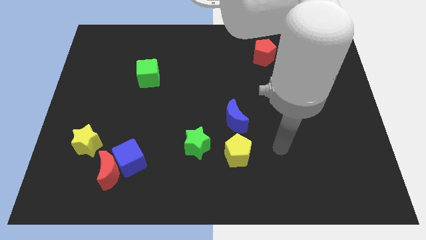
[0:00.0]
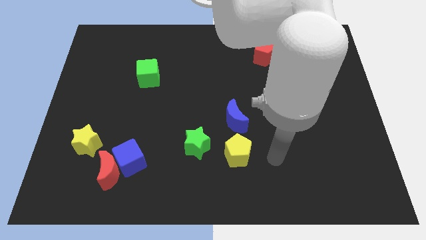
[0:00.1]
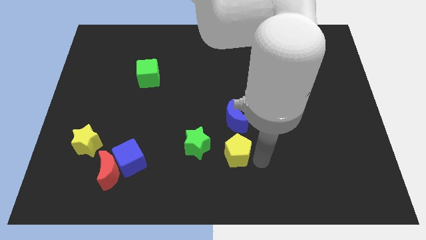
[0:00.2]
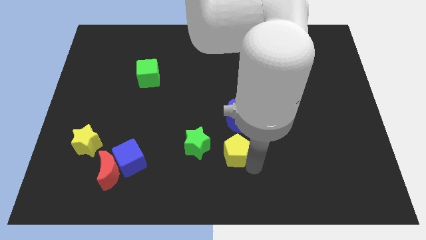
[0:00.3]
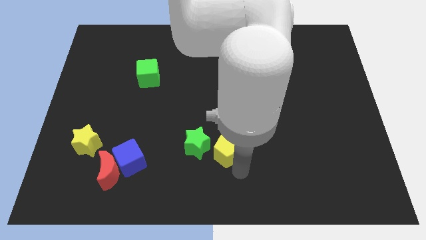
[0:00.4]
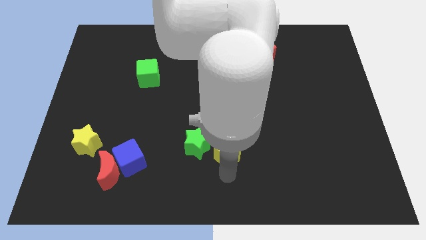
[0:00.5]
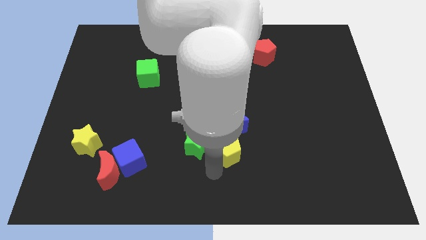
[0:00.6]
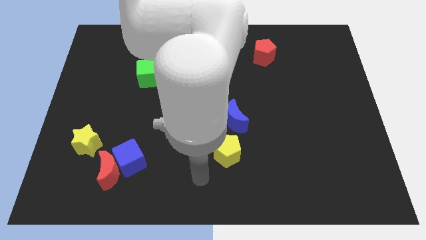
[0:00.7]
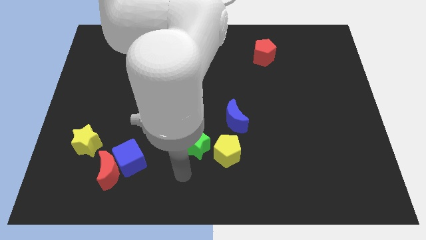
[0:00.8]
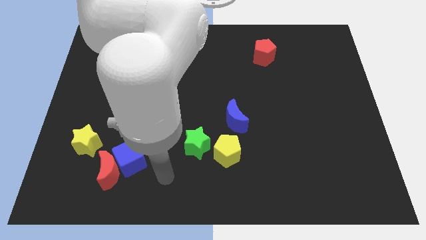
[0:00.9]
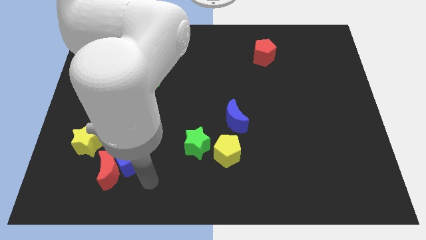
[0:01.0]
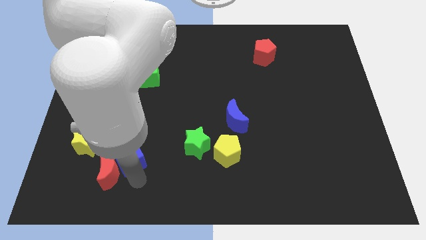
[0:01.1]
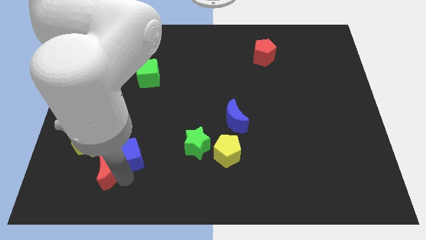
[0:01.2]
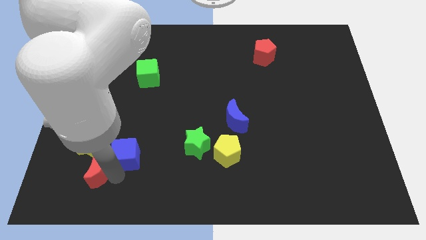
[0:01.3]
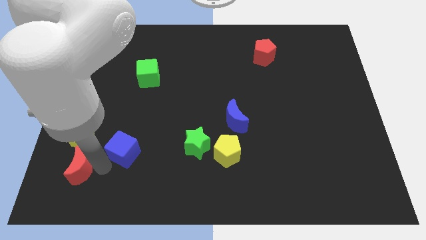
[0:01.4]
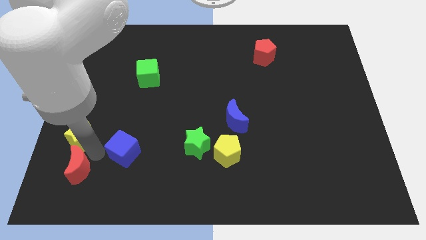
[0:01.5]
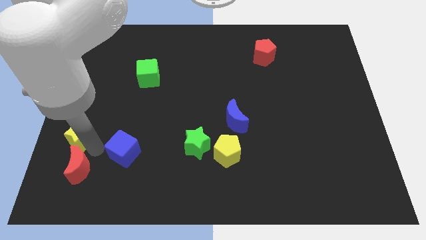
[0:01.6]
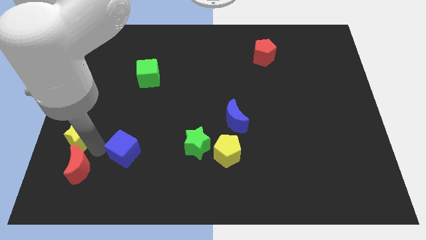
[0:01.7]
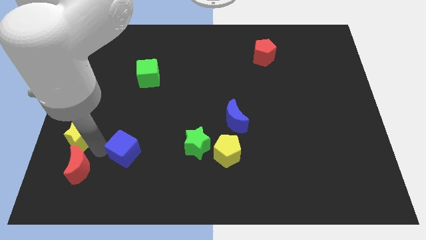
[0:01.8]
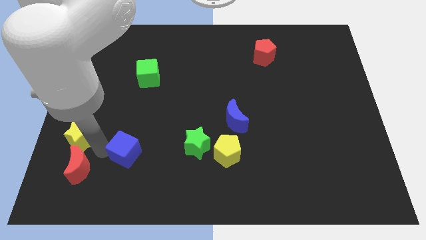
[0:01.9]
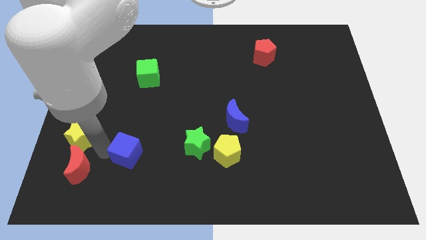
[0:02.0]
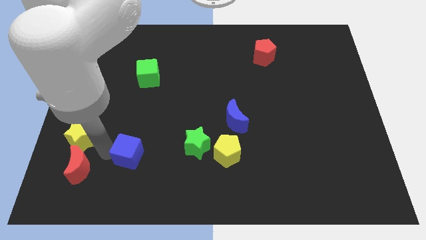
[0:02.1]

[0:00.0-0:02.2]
move the blue cube away from the red moon

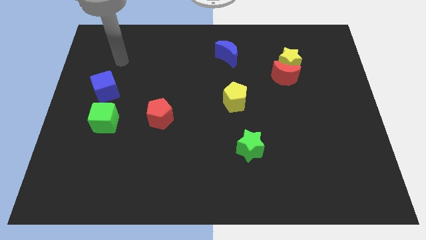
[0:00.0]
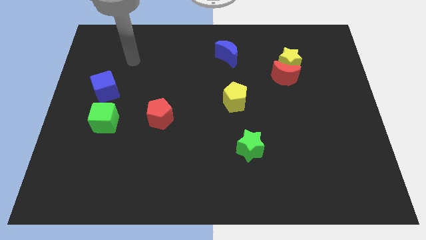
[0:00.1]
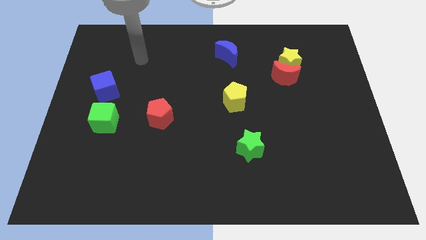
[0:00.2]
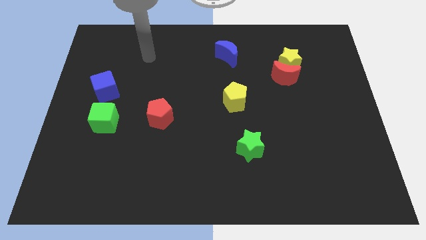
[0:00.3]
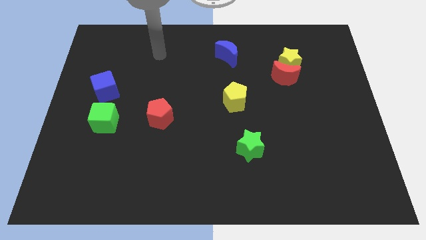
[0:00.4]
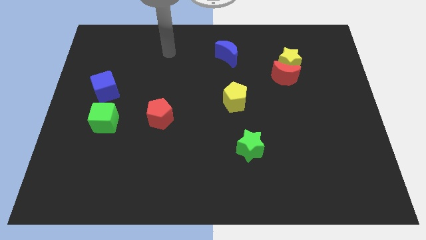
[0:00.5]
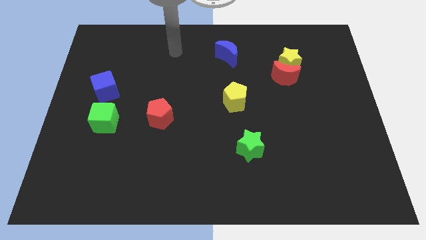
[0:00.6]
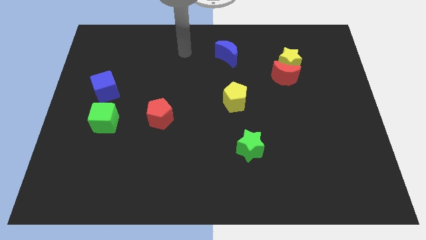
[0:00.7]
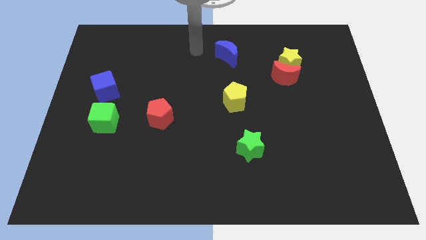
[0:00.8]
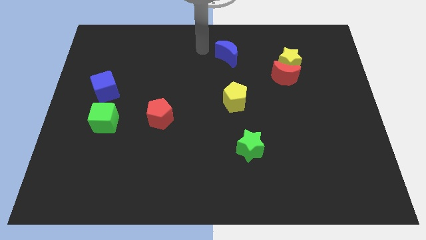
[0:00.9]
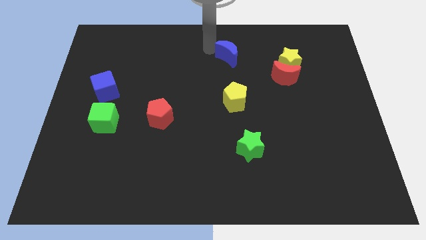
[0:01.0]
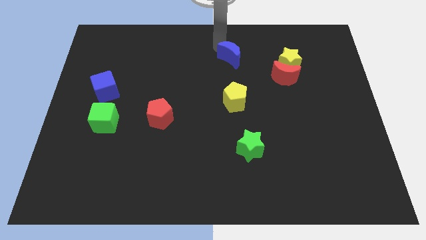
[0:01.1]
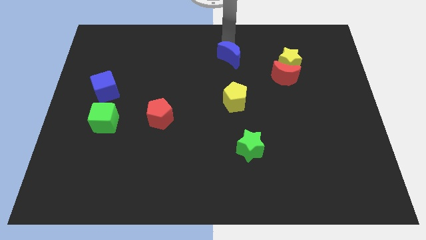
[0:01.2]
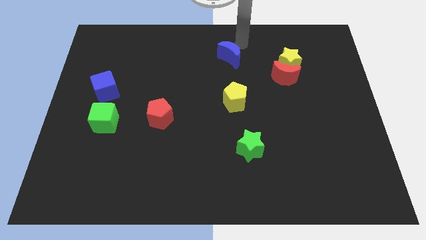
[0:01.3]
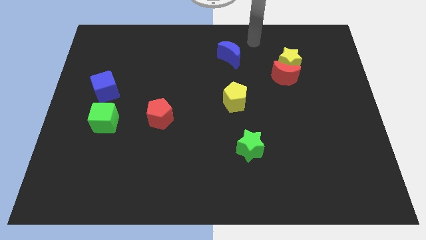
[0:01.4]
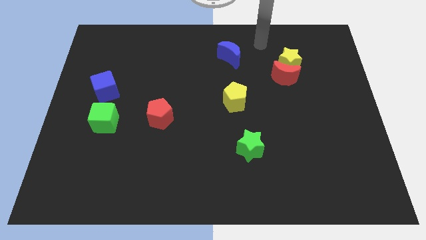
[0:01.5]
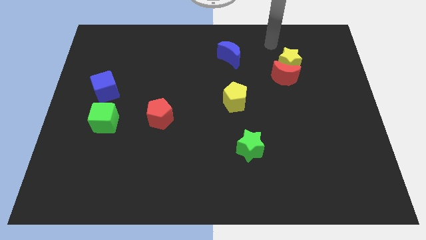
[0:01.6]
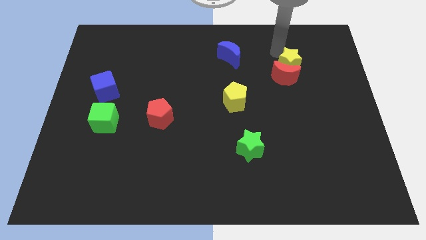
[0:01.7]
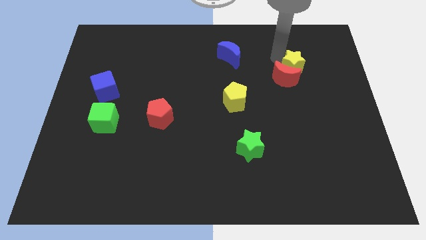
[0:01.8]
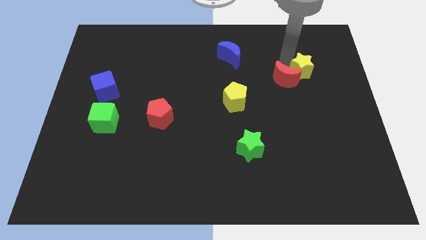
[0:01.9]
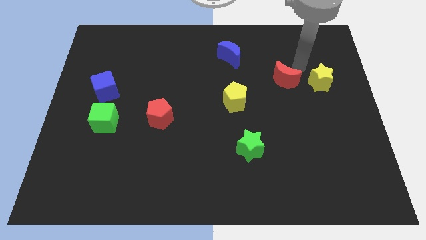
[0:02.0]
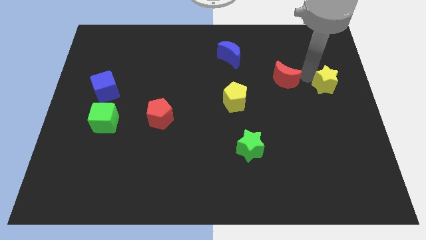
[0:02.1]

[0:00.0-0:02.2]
pull the red moon apart from the yellow star

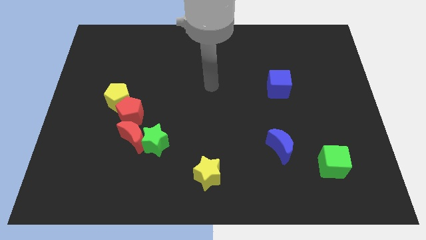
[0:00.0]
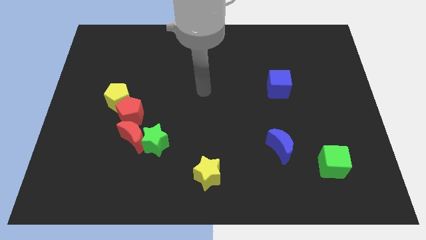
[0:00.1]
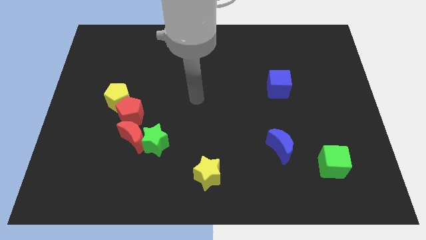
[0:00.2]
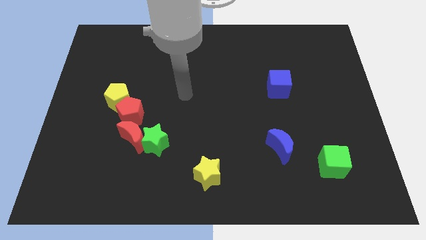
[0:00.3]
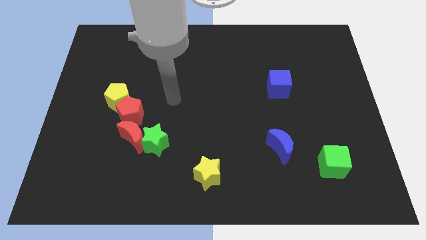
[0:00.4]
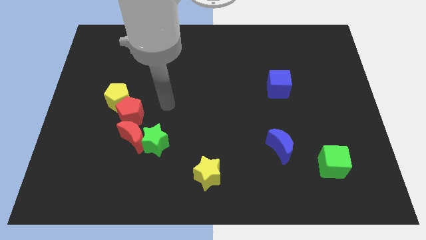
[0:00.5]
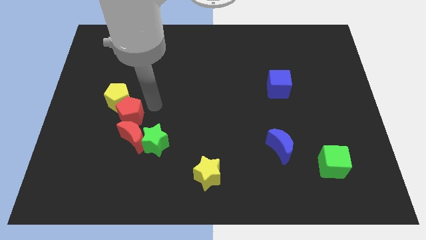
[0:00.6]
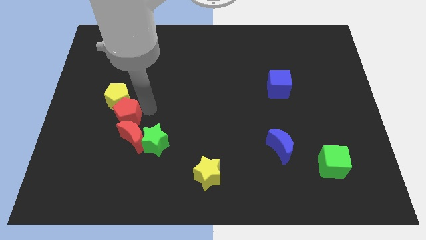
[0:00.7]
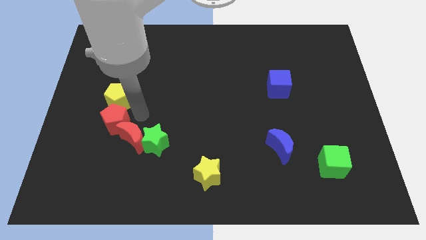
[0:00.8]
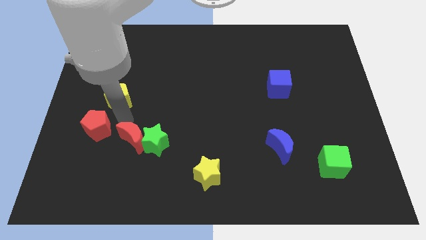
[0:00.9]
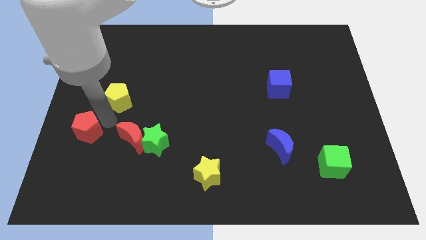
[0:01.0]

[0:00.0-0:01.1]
pull the yellow pentagon apart from the red pentagon

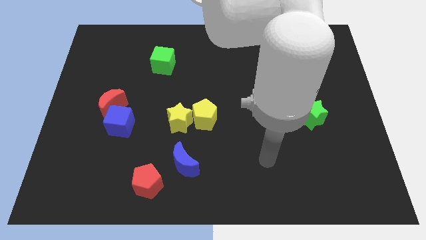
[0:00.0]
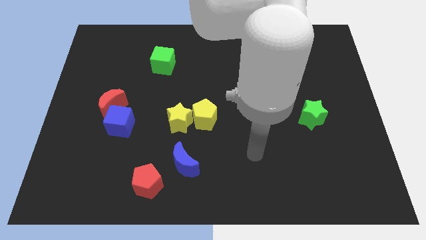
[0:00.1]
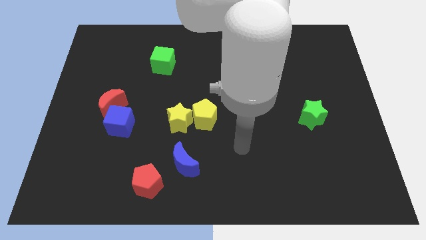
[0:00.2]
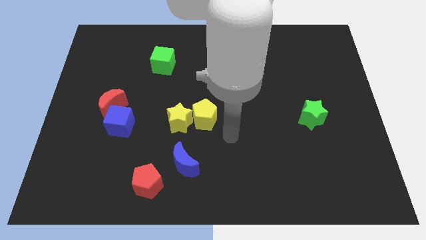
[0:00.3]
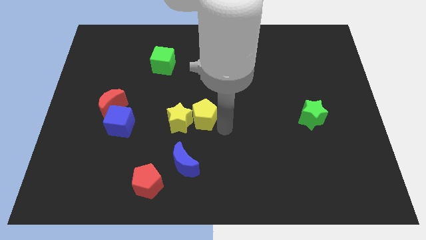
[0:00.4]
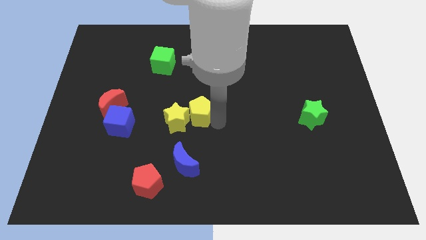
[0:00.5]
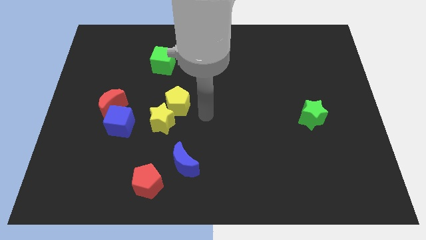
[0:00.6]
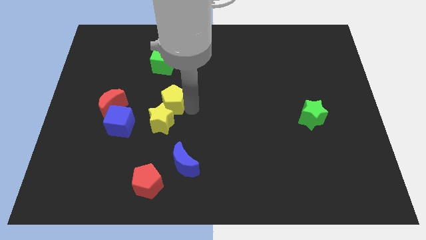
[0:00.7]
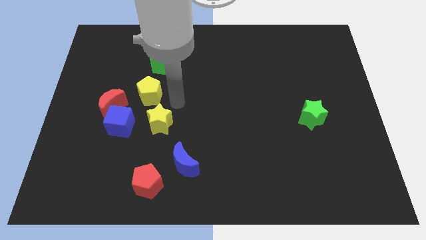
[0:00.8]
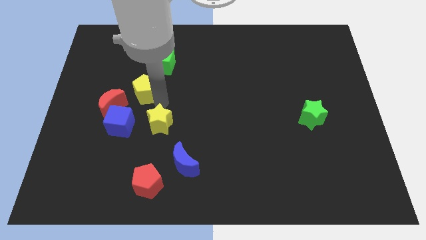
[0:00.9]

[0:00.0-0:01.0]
separate the yellow star from the yellow pentagon

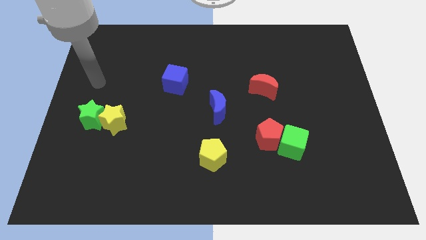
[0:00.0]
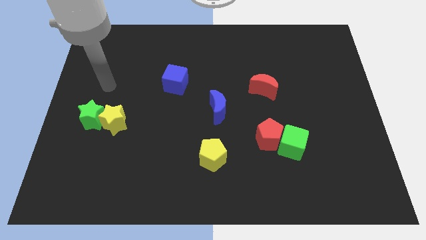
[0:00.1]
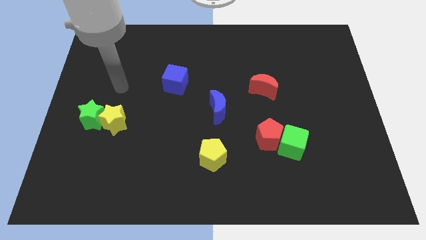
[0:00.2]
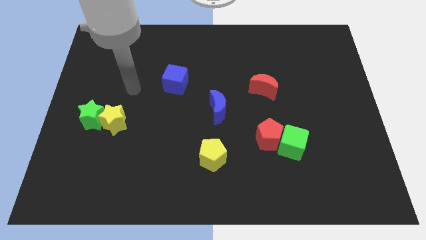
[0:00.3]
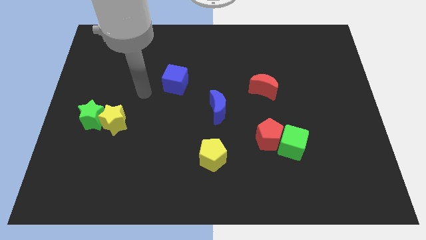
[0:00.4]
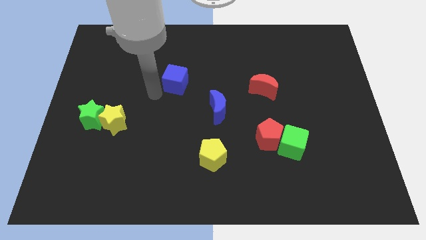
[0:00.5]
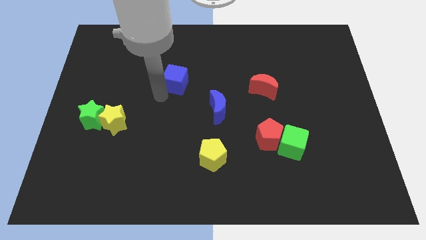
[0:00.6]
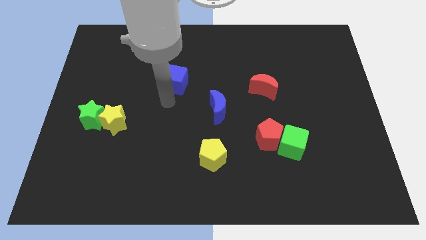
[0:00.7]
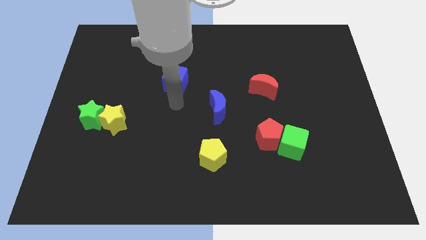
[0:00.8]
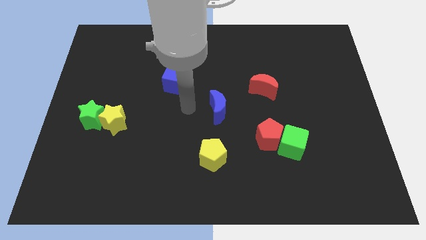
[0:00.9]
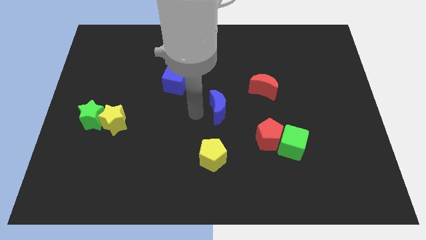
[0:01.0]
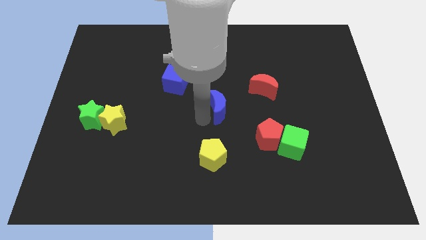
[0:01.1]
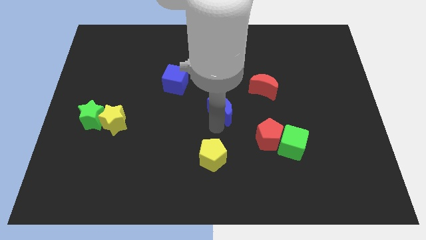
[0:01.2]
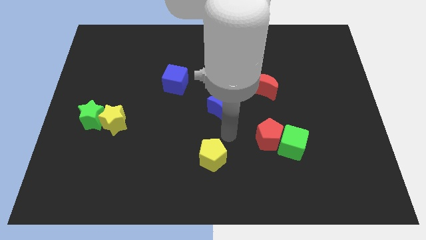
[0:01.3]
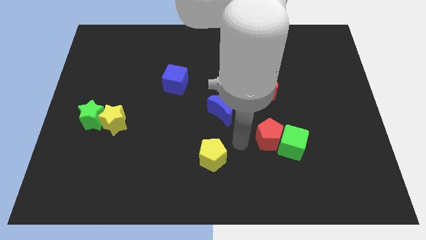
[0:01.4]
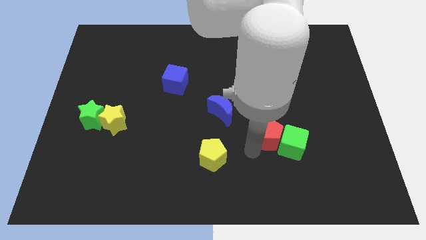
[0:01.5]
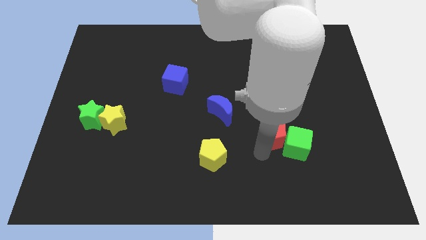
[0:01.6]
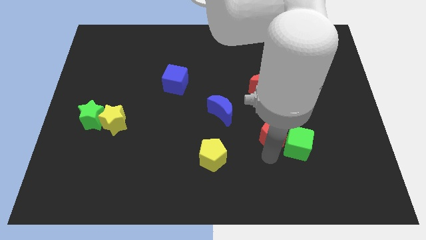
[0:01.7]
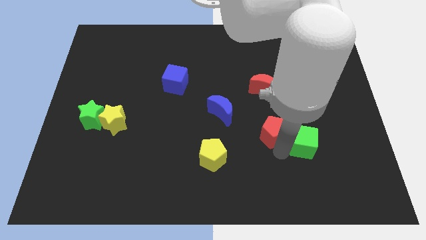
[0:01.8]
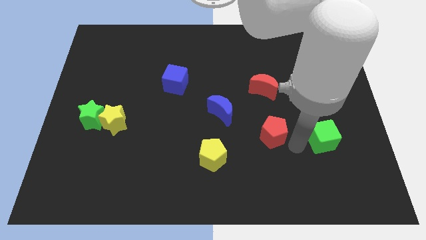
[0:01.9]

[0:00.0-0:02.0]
separate the red pentagon from the green cube

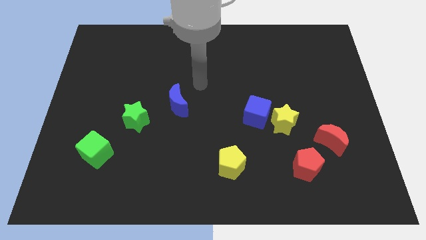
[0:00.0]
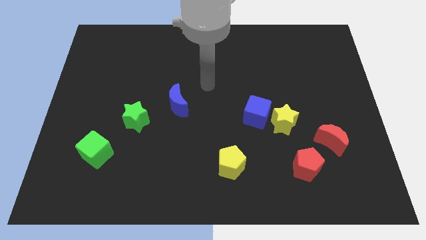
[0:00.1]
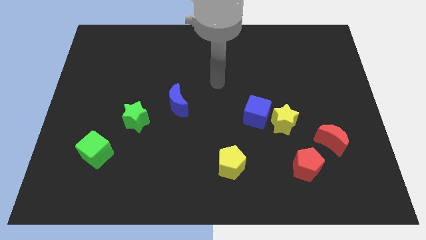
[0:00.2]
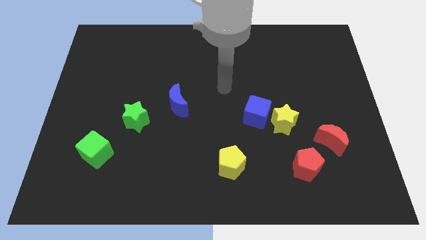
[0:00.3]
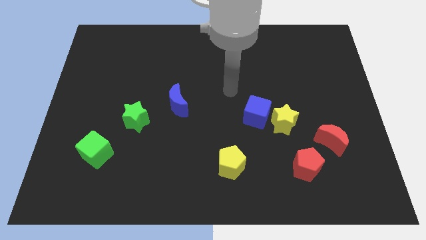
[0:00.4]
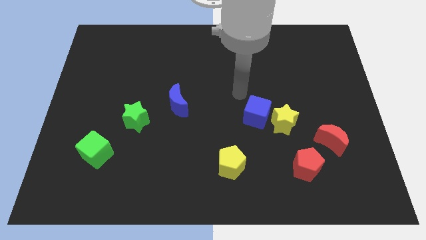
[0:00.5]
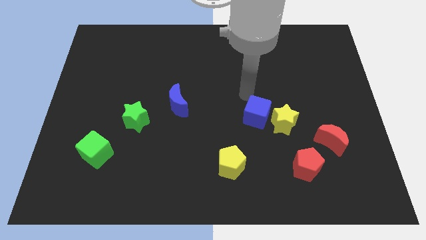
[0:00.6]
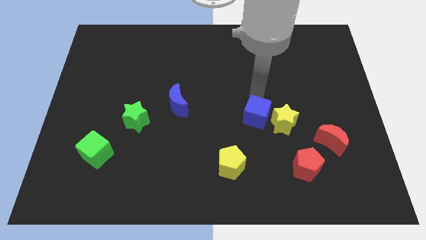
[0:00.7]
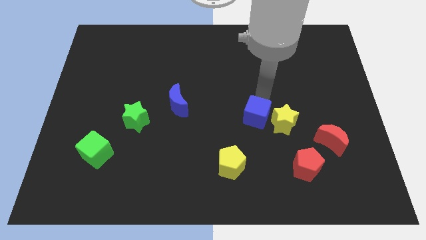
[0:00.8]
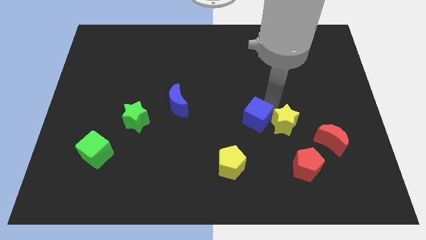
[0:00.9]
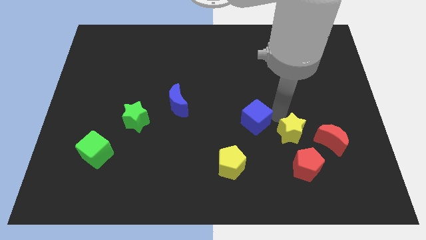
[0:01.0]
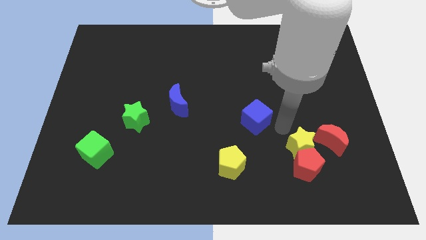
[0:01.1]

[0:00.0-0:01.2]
move the blue cube away from the yellow star
